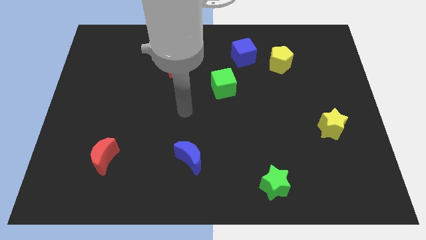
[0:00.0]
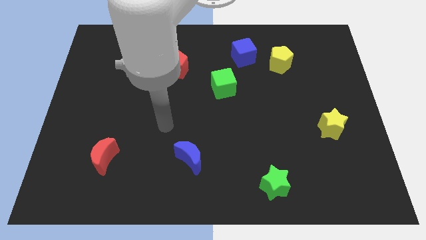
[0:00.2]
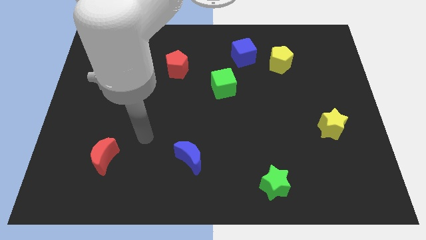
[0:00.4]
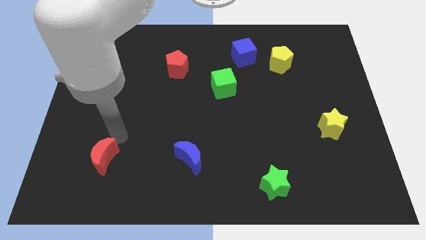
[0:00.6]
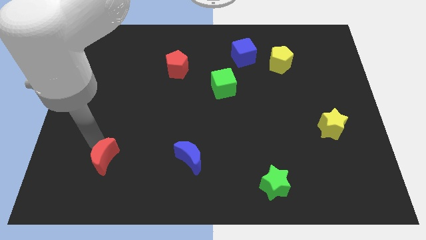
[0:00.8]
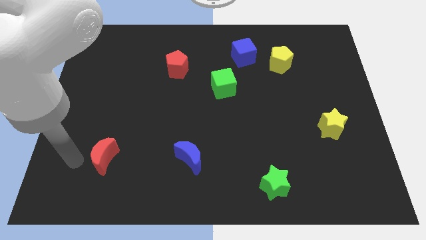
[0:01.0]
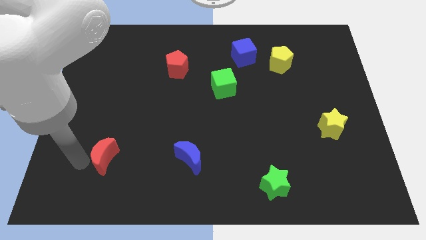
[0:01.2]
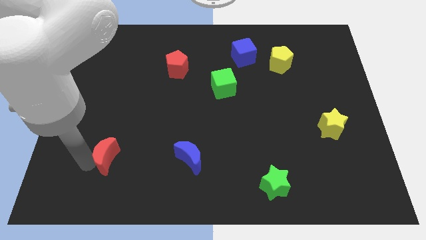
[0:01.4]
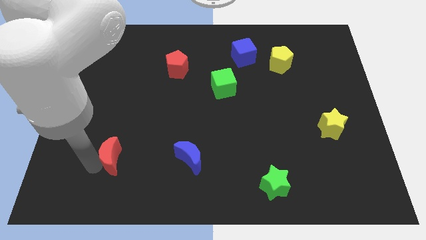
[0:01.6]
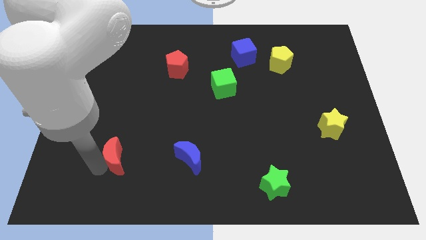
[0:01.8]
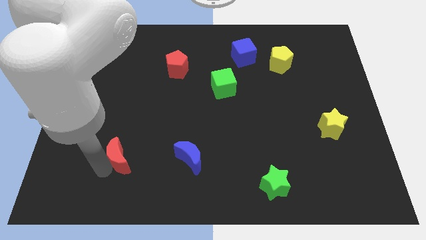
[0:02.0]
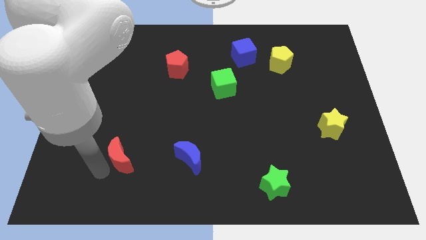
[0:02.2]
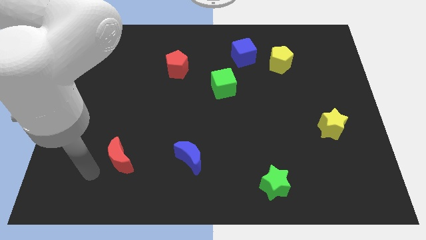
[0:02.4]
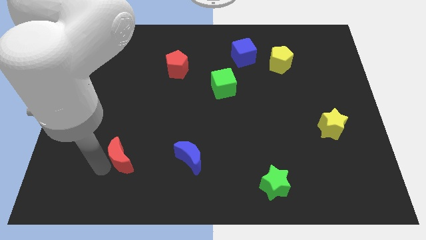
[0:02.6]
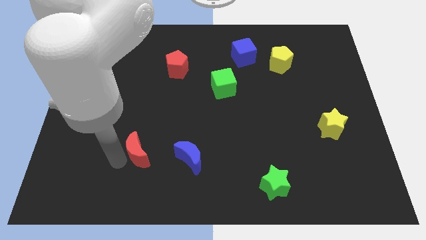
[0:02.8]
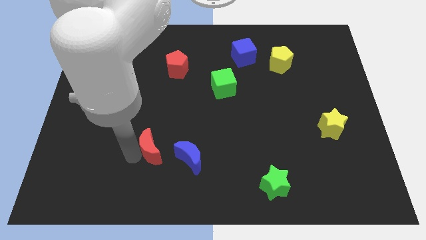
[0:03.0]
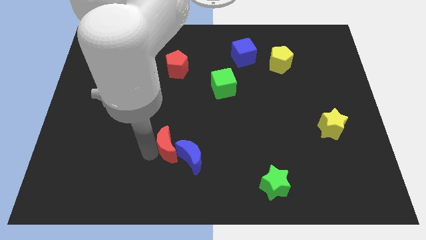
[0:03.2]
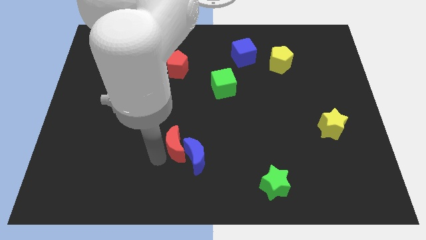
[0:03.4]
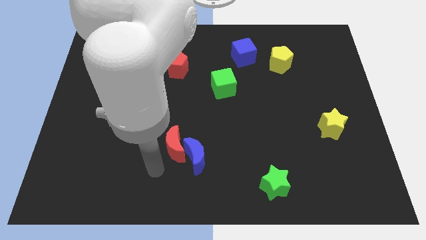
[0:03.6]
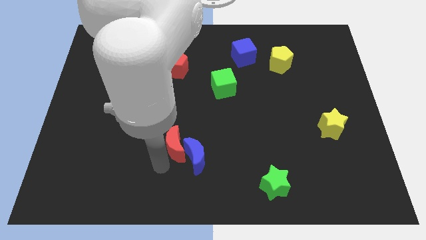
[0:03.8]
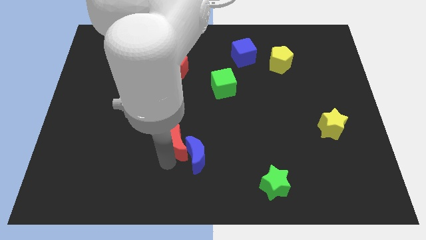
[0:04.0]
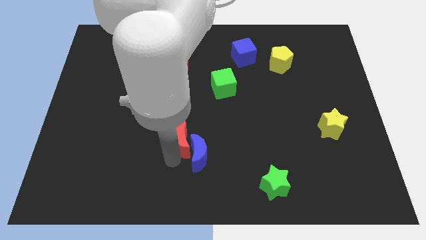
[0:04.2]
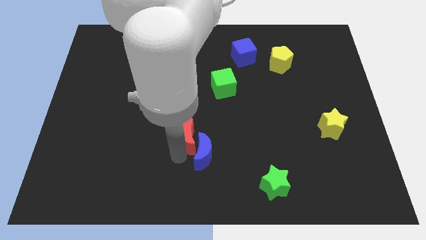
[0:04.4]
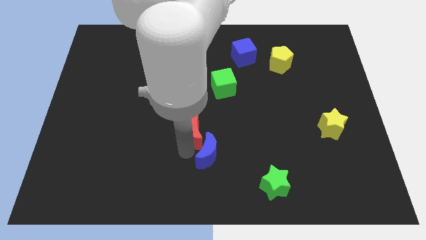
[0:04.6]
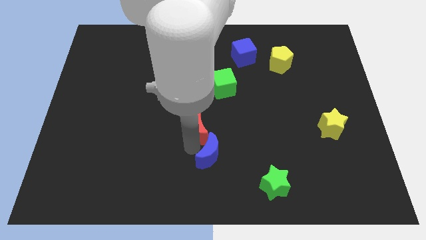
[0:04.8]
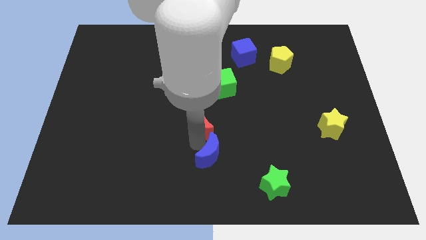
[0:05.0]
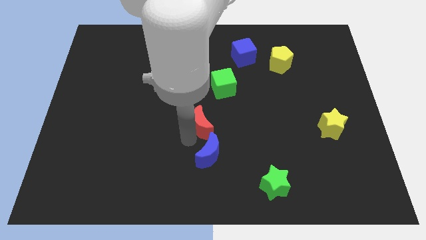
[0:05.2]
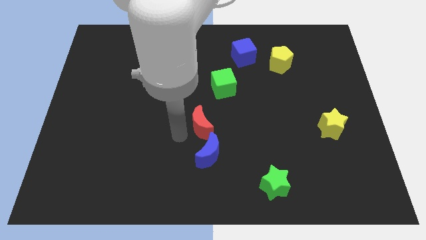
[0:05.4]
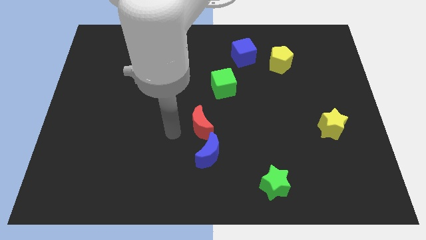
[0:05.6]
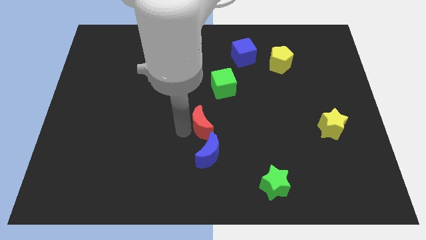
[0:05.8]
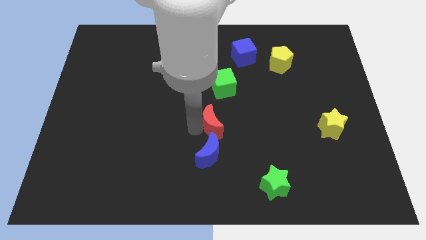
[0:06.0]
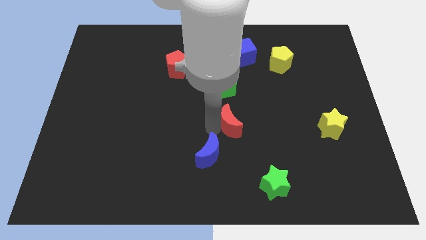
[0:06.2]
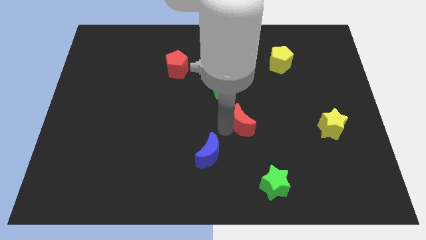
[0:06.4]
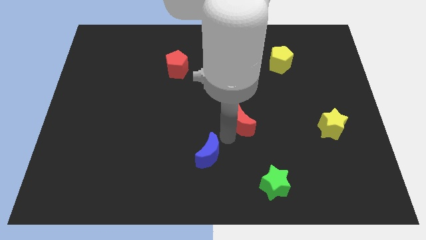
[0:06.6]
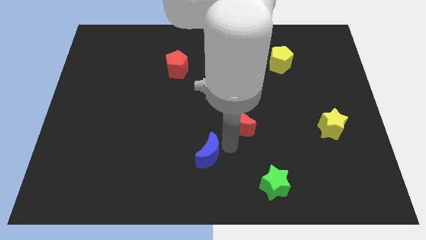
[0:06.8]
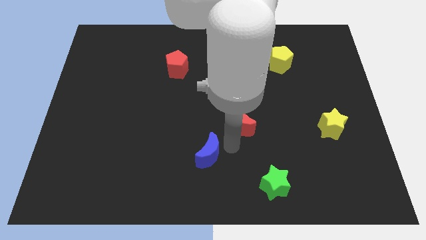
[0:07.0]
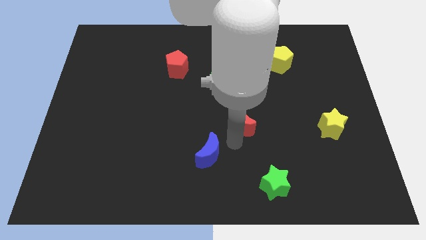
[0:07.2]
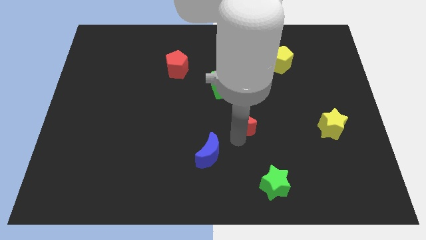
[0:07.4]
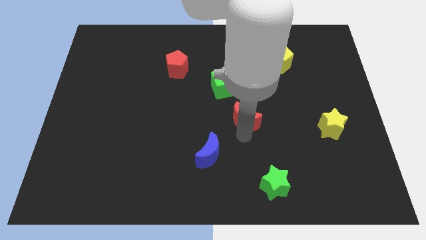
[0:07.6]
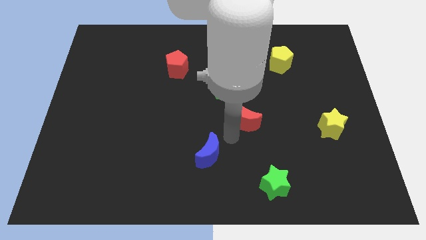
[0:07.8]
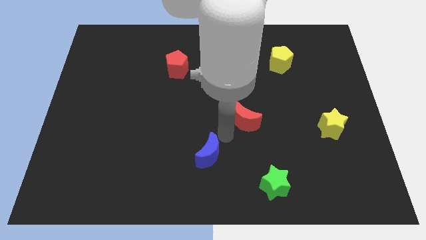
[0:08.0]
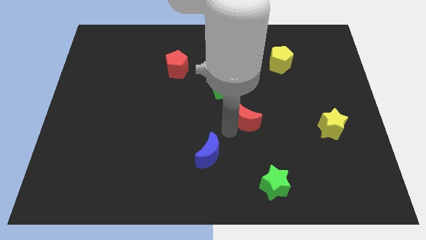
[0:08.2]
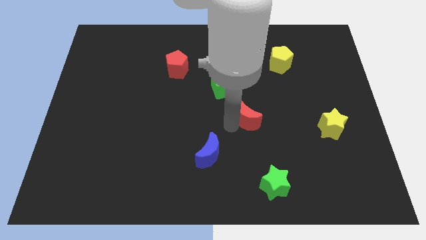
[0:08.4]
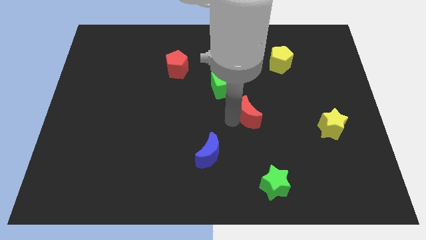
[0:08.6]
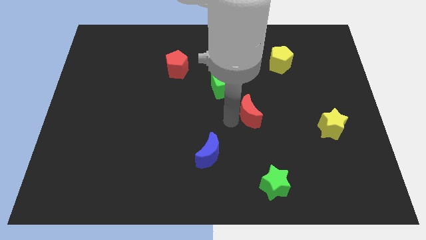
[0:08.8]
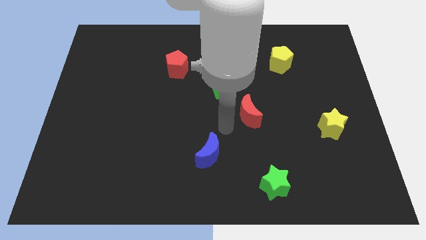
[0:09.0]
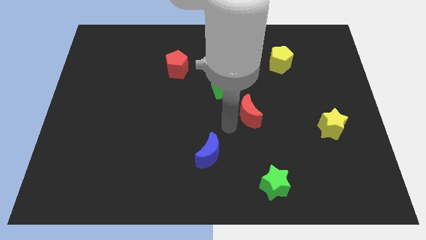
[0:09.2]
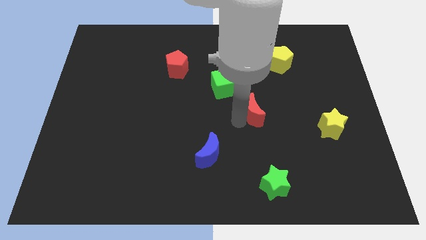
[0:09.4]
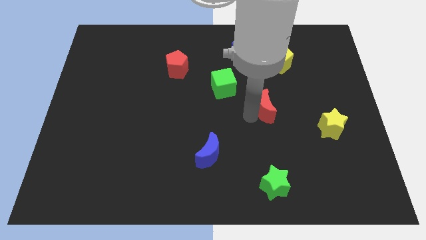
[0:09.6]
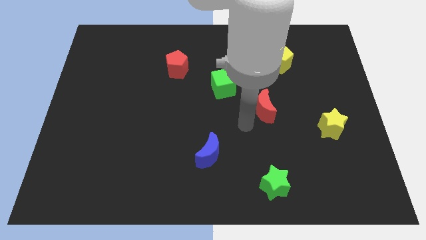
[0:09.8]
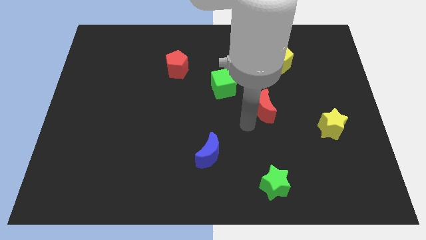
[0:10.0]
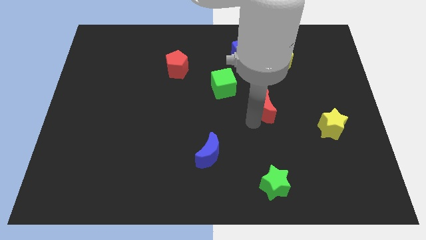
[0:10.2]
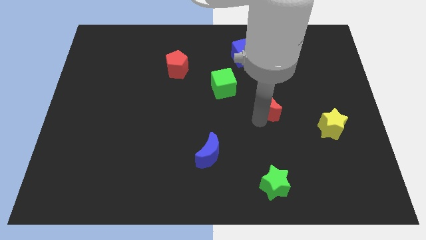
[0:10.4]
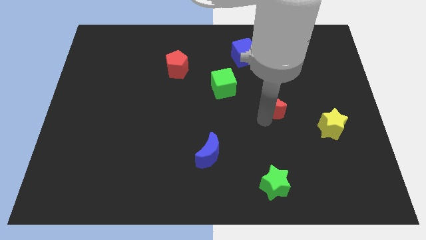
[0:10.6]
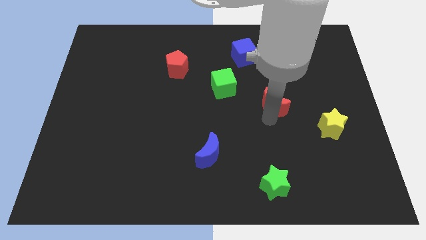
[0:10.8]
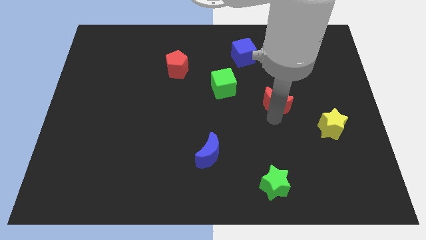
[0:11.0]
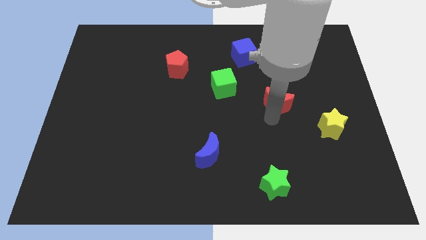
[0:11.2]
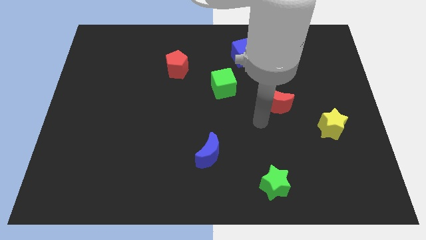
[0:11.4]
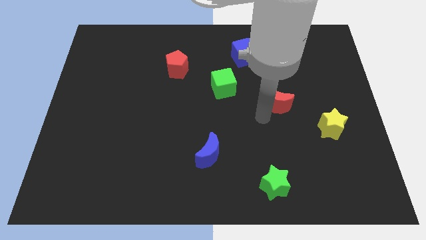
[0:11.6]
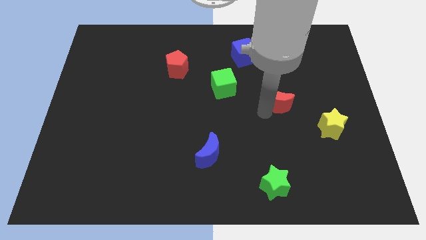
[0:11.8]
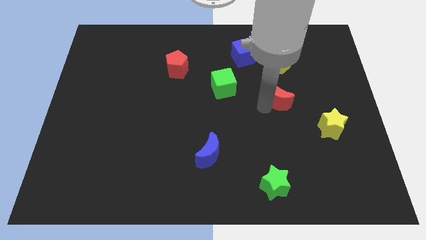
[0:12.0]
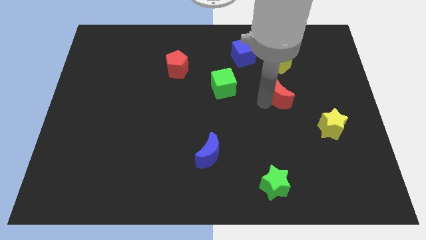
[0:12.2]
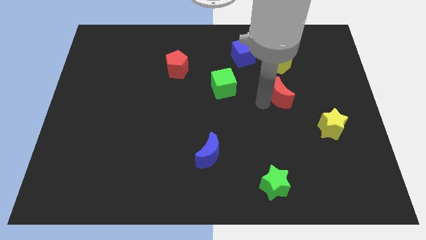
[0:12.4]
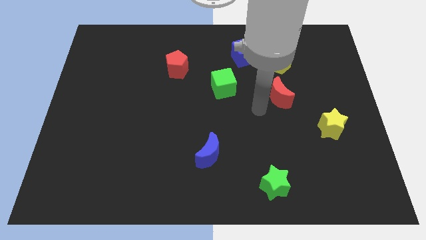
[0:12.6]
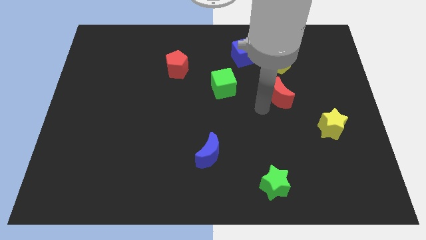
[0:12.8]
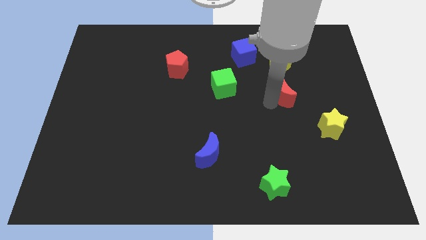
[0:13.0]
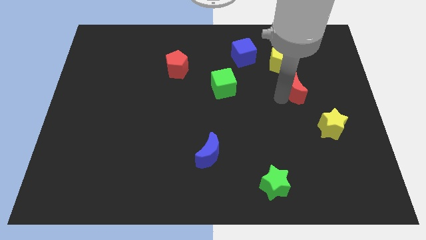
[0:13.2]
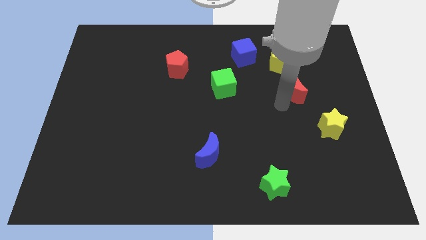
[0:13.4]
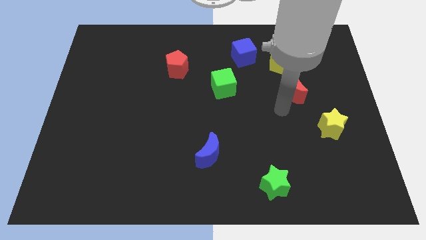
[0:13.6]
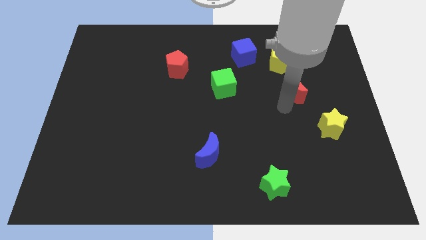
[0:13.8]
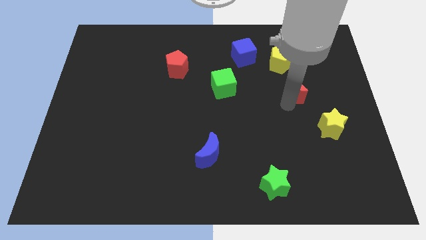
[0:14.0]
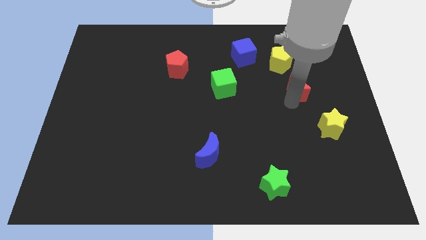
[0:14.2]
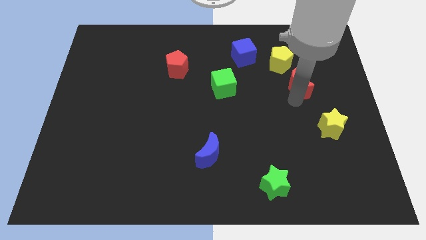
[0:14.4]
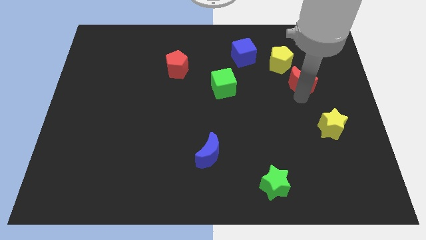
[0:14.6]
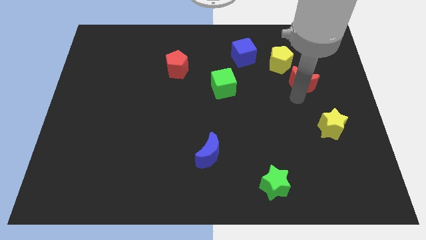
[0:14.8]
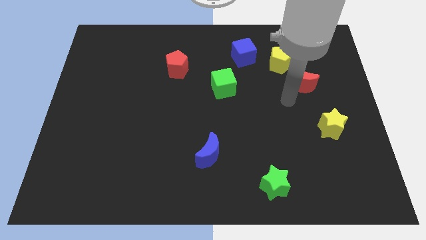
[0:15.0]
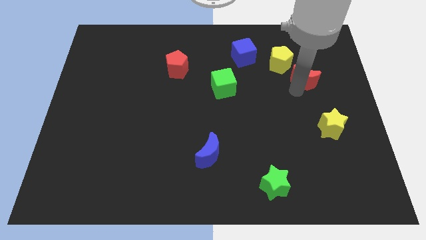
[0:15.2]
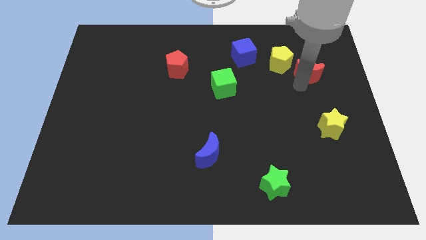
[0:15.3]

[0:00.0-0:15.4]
slide the red moon to the right side of the yellow pentagon

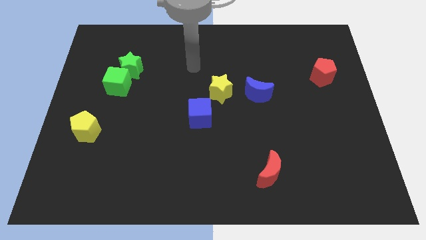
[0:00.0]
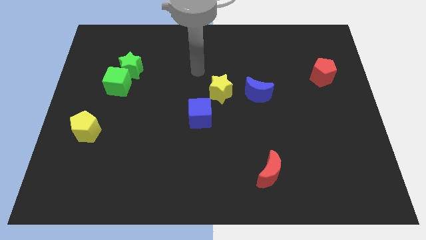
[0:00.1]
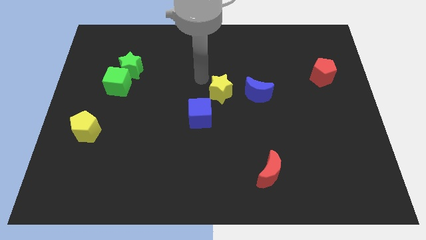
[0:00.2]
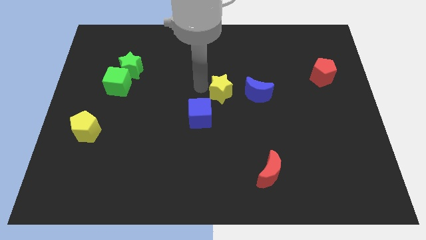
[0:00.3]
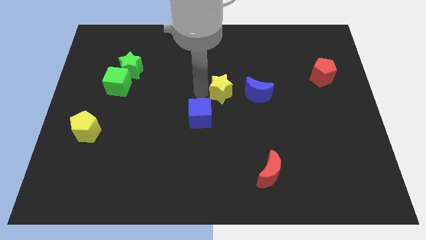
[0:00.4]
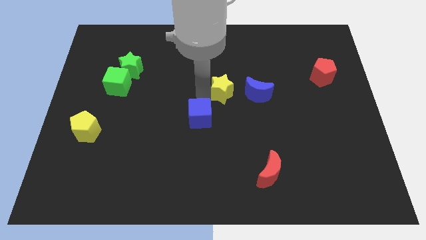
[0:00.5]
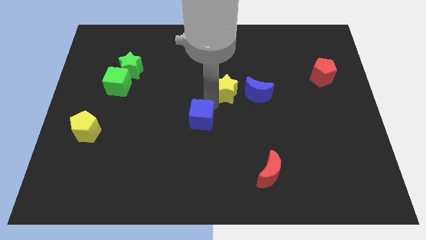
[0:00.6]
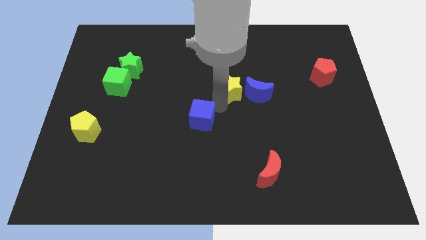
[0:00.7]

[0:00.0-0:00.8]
move the blue moon to the top right side of the yellow star
